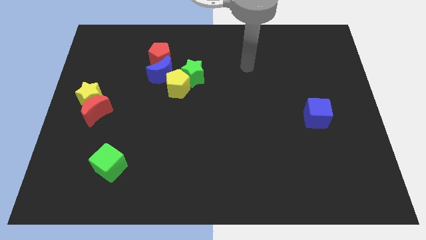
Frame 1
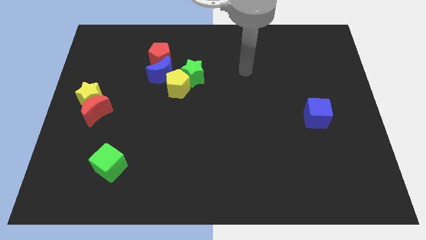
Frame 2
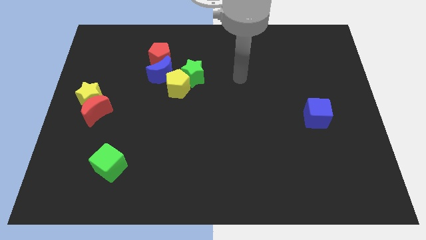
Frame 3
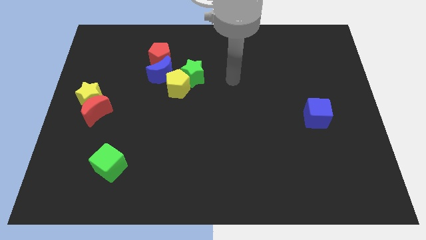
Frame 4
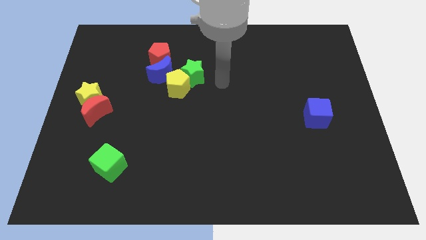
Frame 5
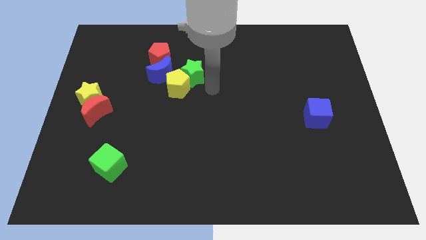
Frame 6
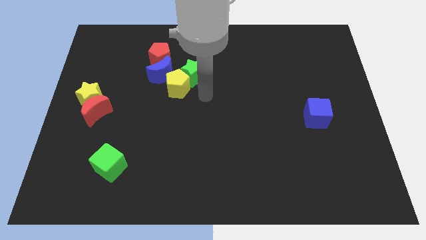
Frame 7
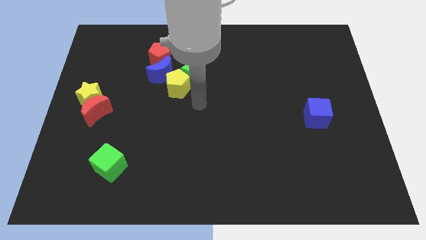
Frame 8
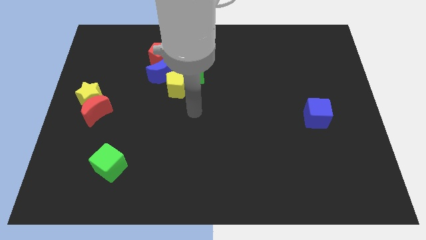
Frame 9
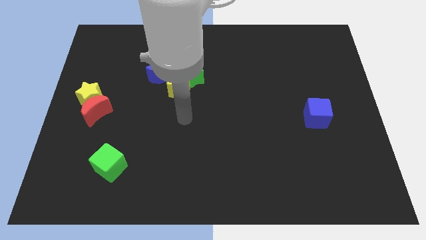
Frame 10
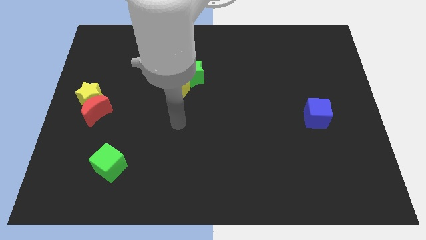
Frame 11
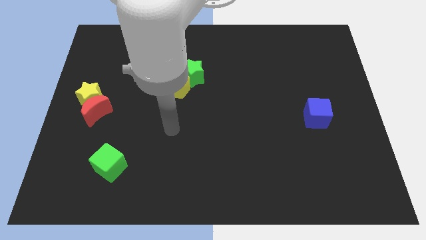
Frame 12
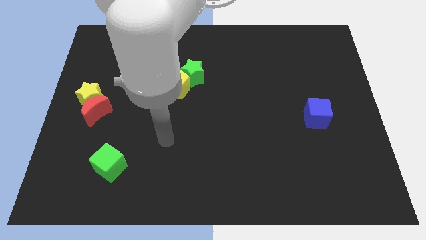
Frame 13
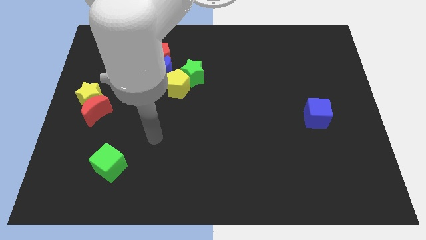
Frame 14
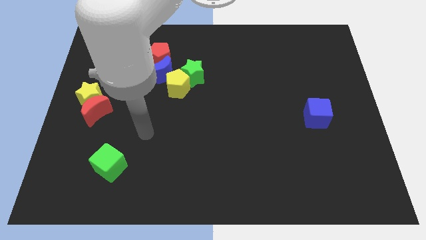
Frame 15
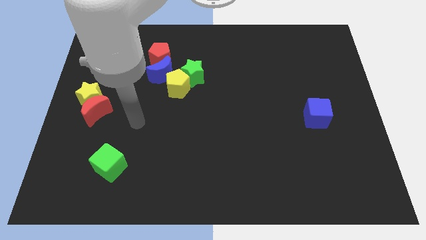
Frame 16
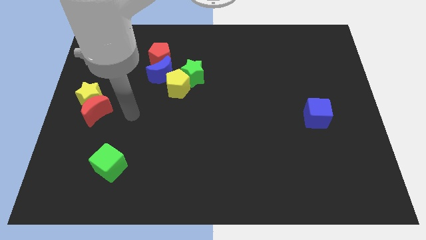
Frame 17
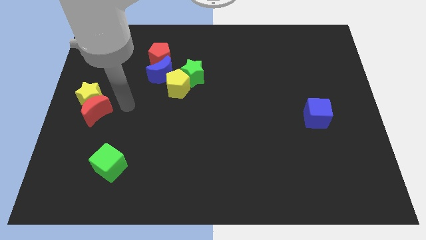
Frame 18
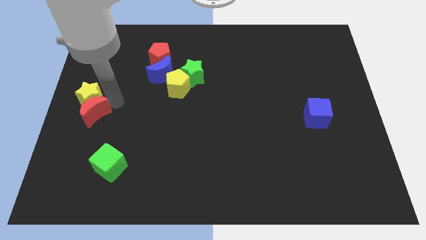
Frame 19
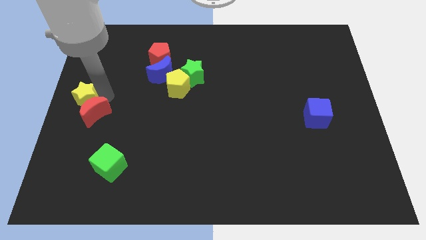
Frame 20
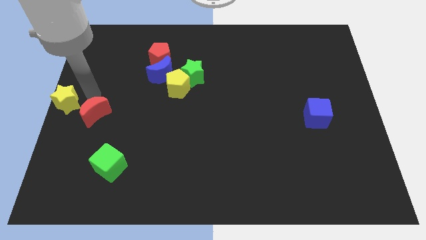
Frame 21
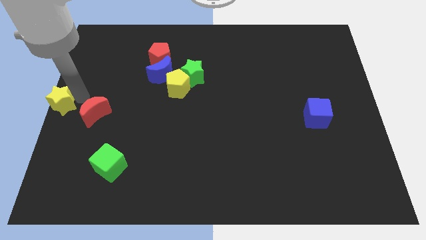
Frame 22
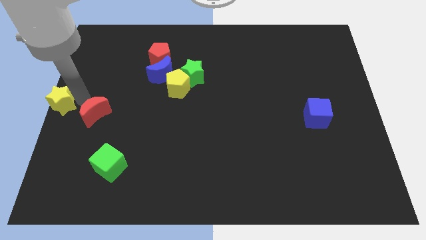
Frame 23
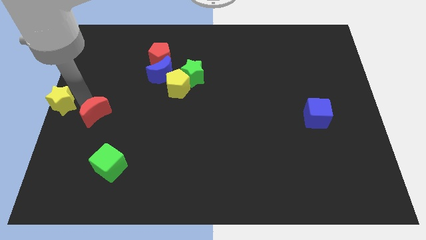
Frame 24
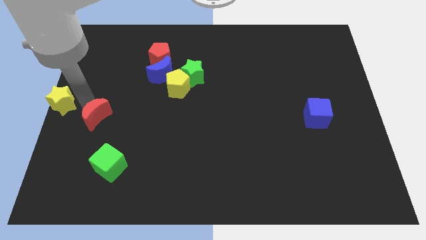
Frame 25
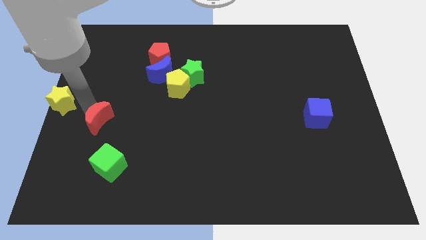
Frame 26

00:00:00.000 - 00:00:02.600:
move the red moon away from the yellow star

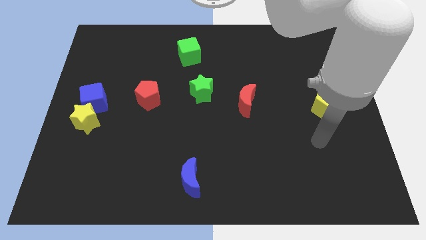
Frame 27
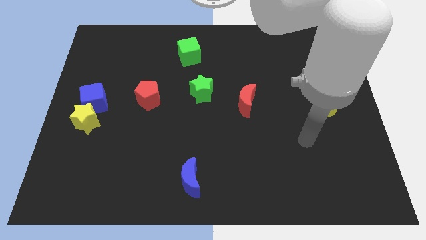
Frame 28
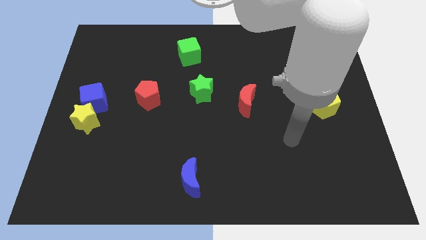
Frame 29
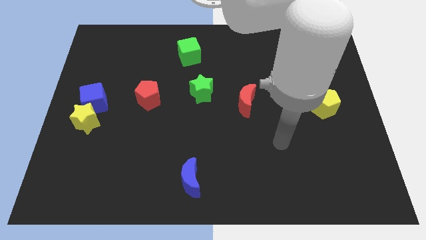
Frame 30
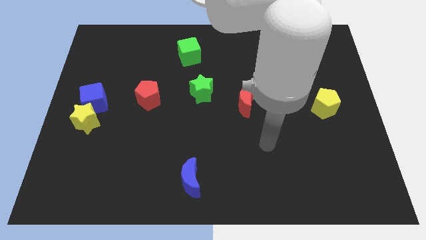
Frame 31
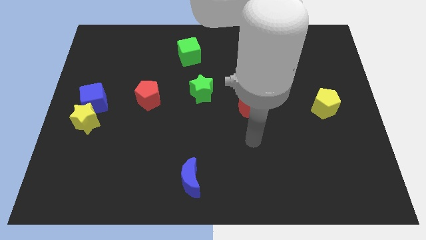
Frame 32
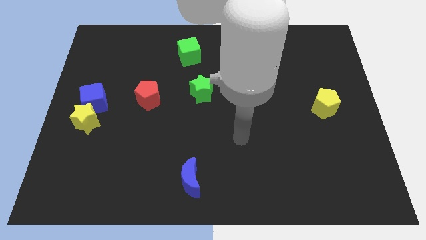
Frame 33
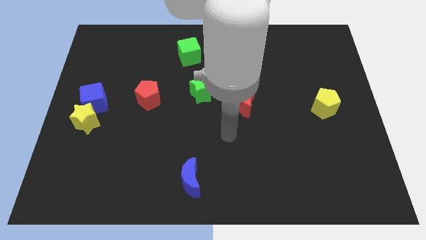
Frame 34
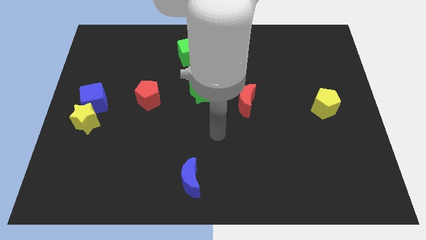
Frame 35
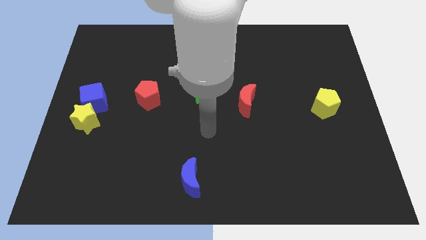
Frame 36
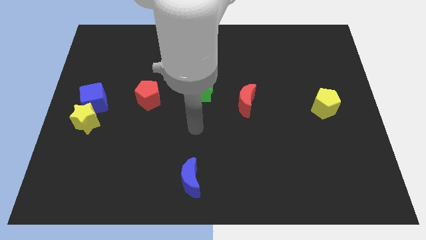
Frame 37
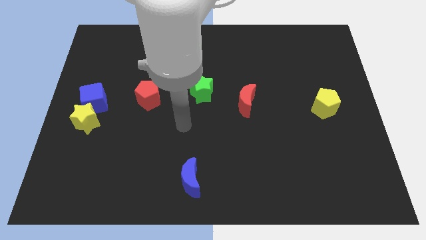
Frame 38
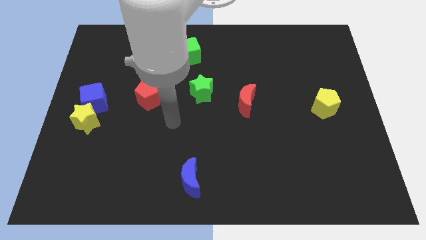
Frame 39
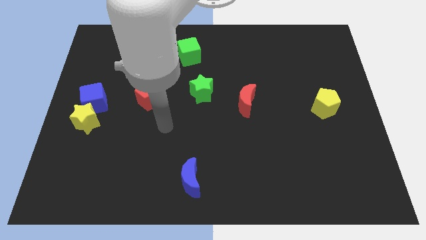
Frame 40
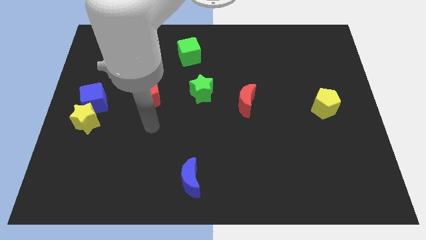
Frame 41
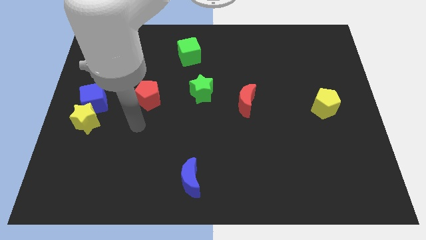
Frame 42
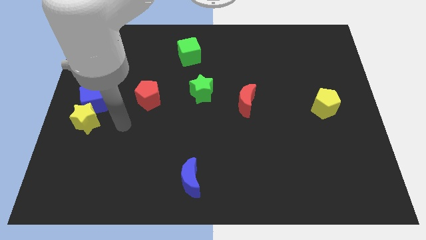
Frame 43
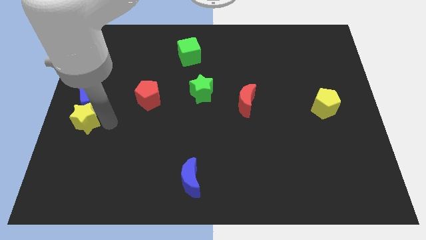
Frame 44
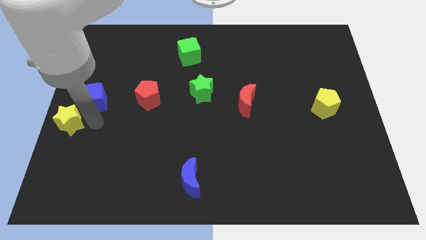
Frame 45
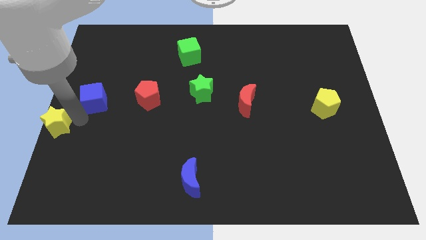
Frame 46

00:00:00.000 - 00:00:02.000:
pull the blue cube apart from the yellow star

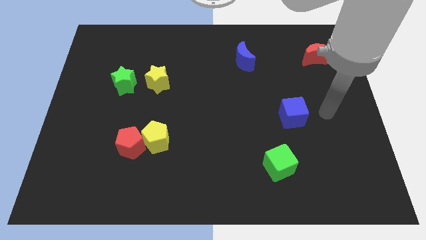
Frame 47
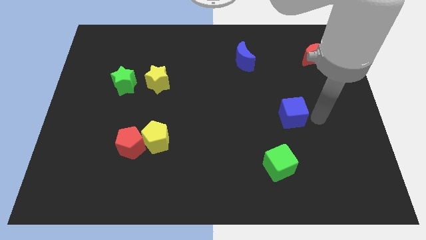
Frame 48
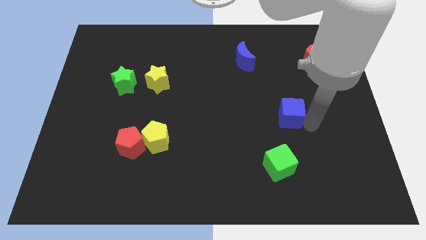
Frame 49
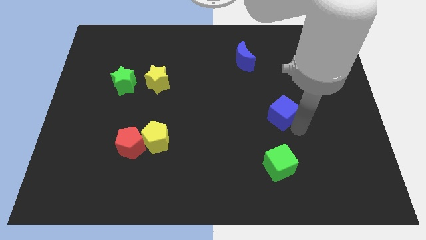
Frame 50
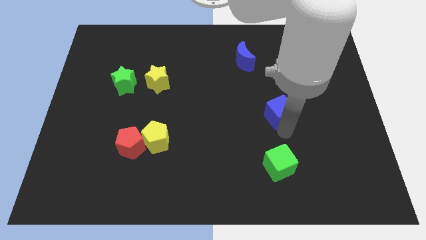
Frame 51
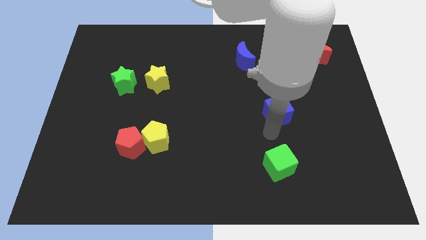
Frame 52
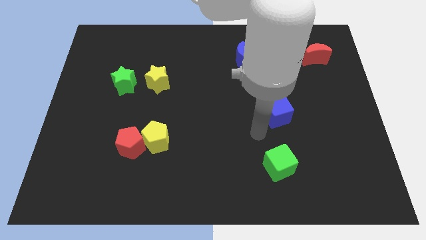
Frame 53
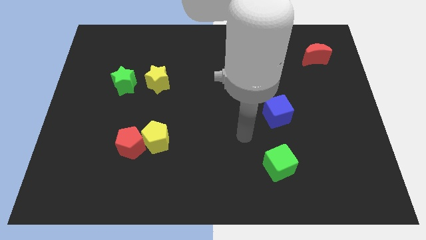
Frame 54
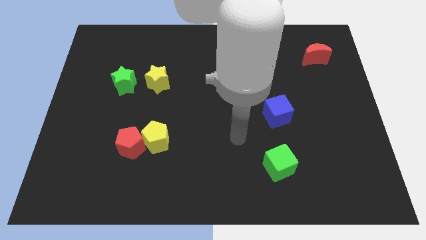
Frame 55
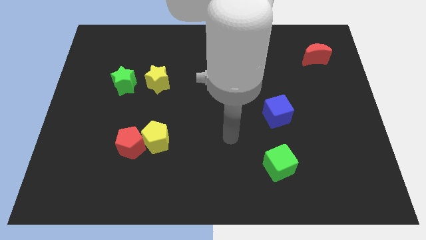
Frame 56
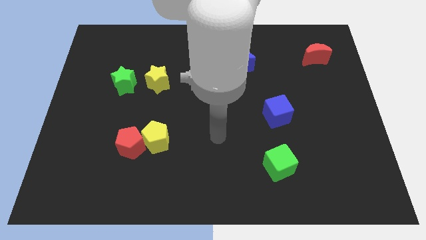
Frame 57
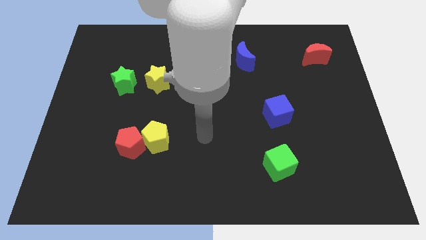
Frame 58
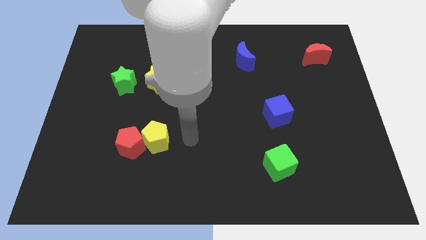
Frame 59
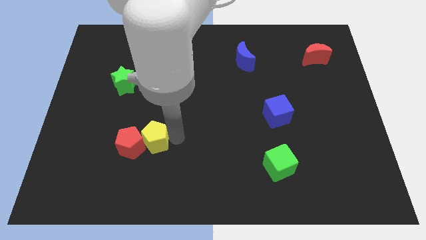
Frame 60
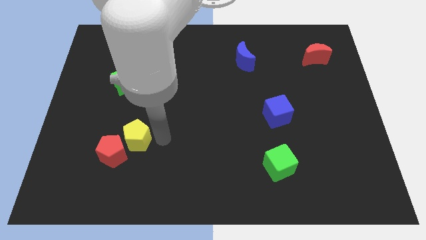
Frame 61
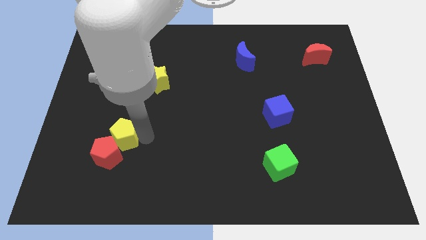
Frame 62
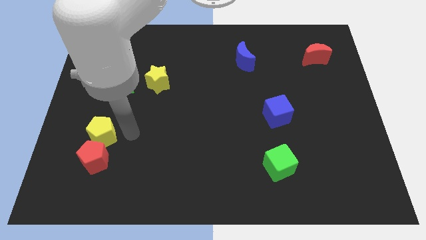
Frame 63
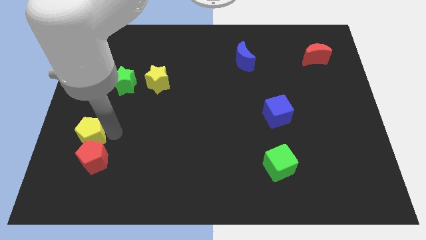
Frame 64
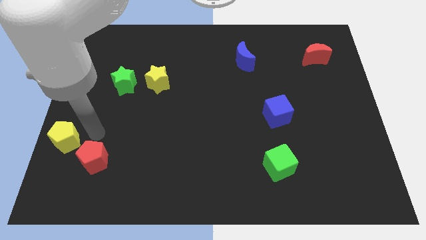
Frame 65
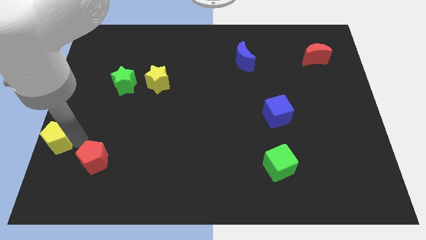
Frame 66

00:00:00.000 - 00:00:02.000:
pull the red pentagon apart from the yellow pentagon

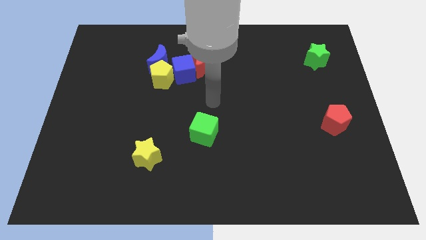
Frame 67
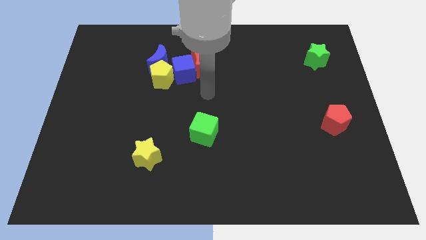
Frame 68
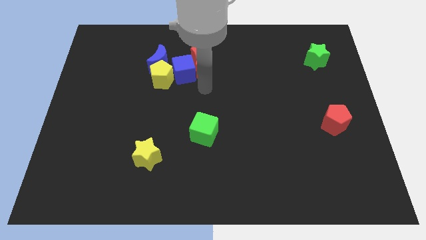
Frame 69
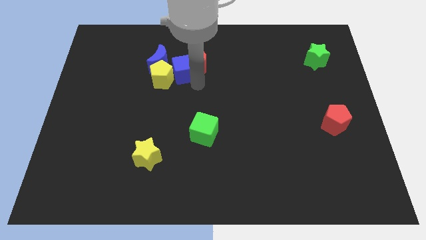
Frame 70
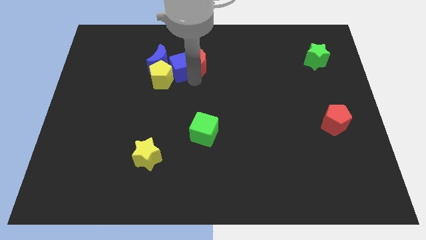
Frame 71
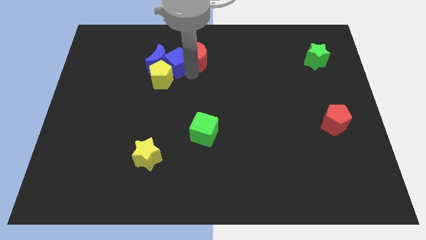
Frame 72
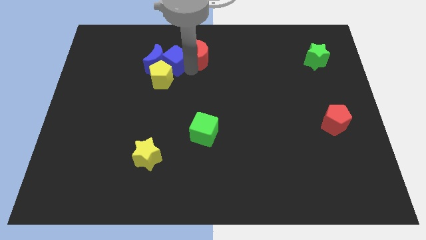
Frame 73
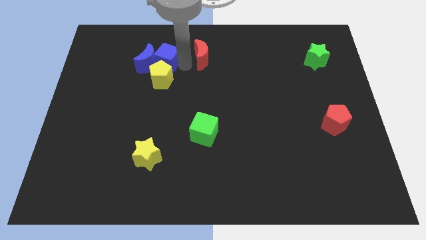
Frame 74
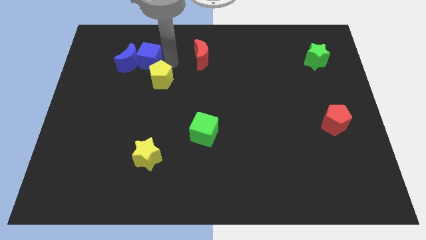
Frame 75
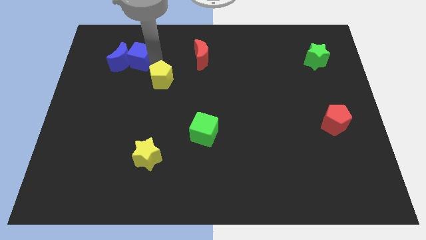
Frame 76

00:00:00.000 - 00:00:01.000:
move the yellow pentagon away from the blue moon and blue cube

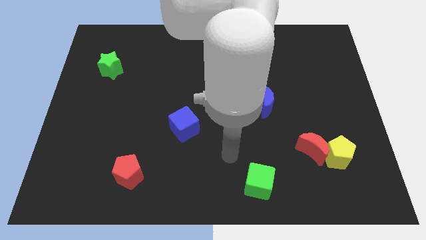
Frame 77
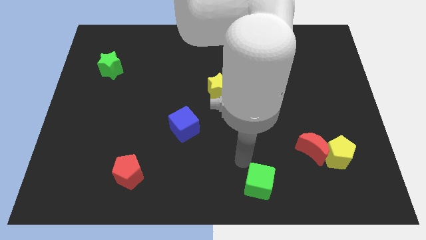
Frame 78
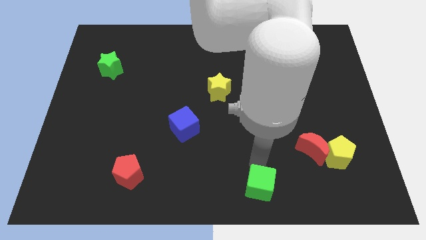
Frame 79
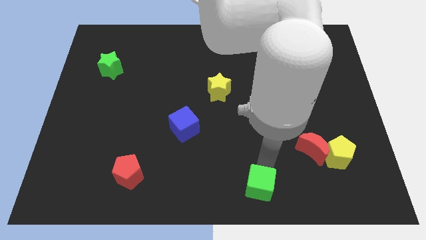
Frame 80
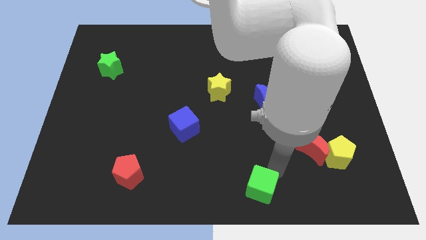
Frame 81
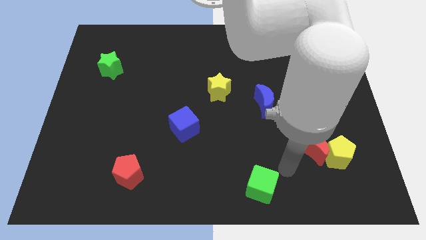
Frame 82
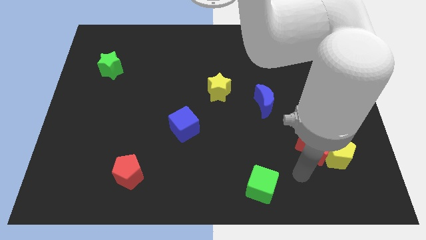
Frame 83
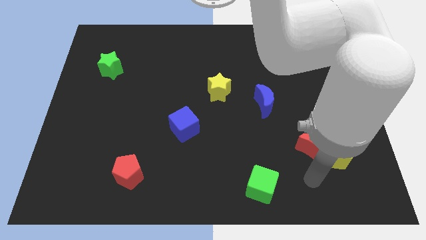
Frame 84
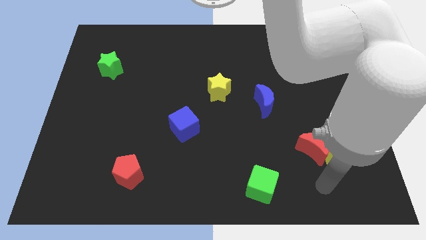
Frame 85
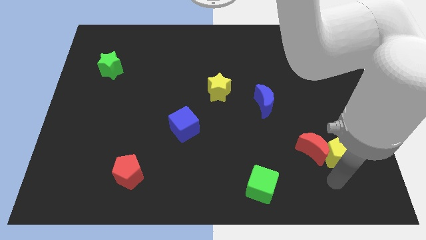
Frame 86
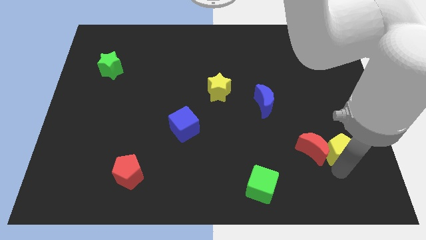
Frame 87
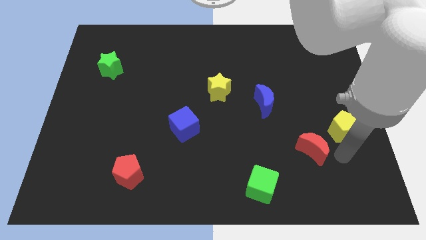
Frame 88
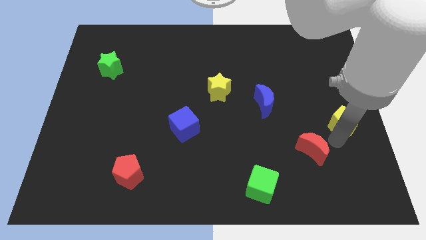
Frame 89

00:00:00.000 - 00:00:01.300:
separate the red moon from the yellow pentagon

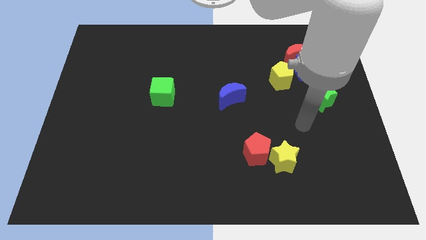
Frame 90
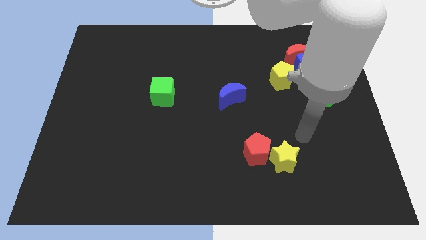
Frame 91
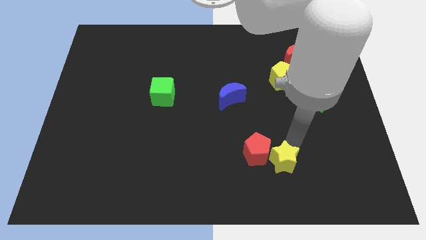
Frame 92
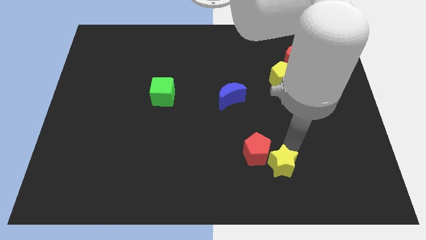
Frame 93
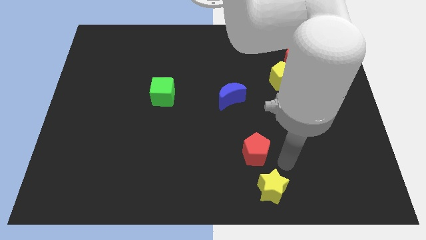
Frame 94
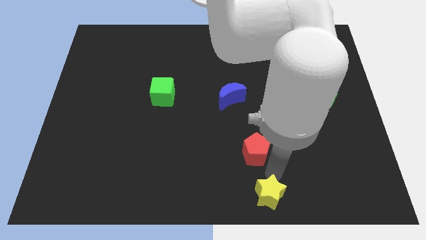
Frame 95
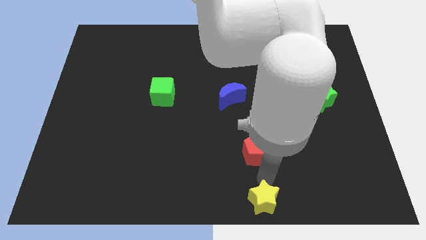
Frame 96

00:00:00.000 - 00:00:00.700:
move the red pentagon away from the yellow star
